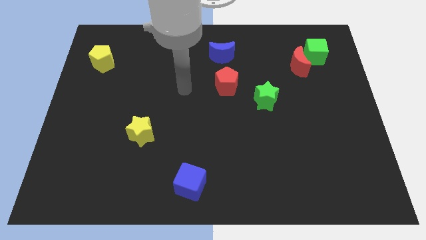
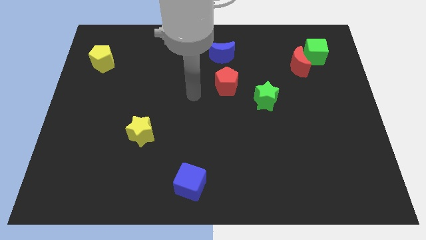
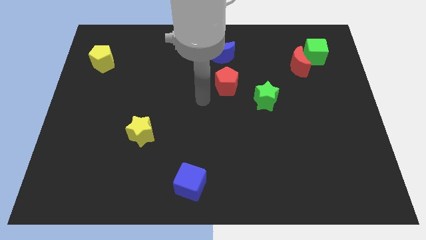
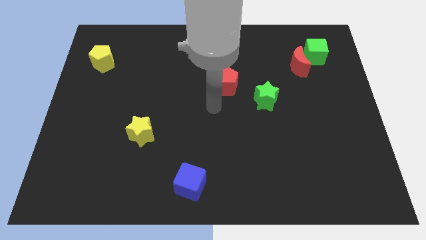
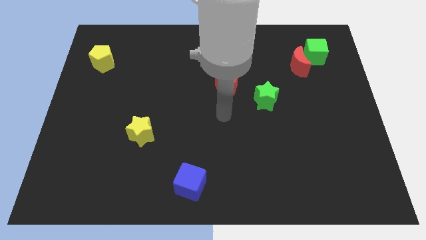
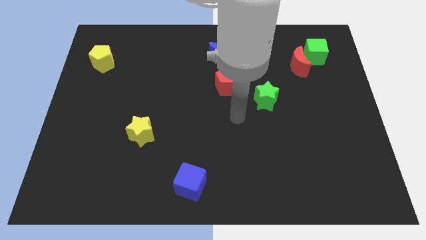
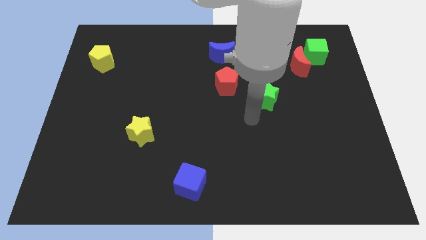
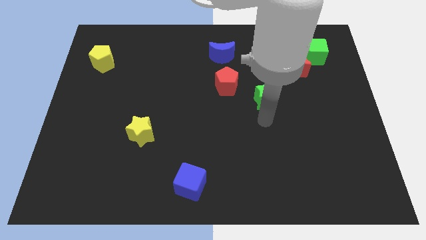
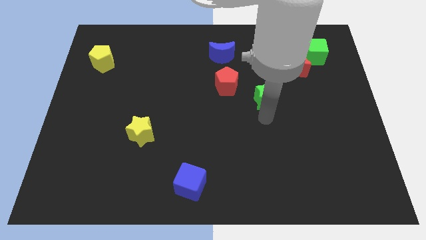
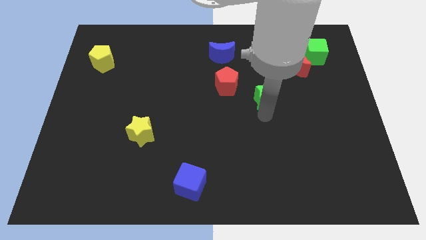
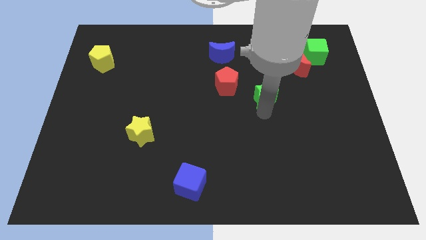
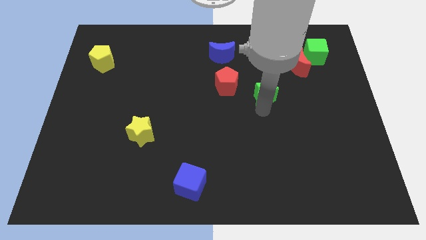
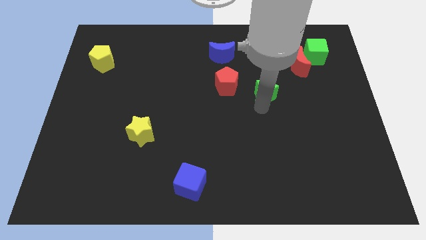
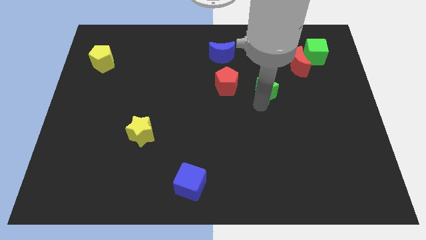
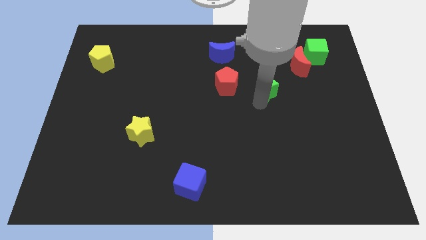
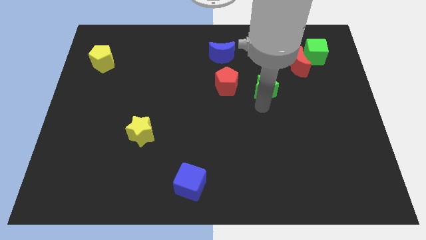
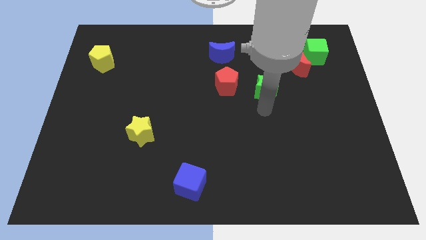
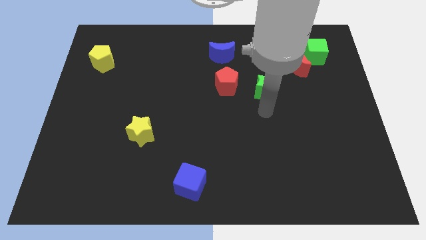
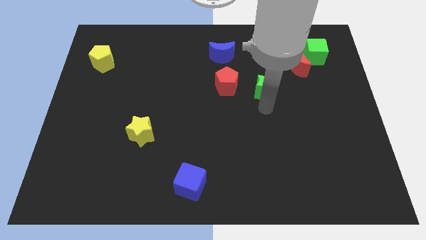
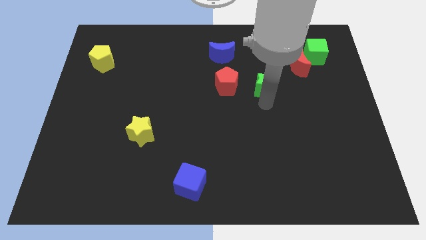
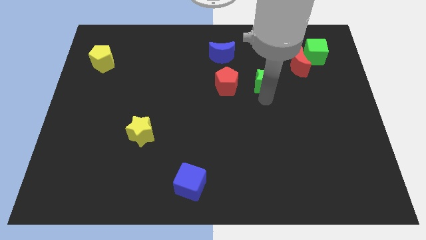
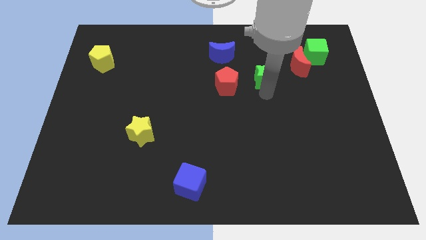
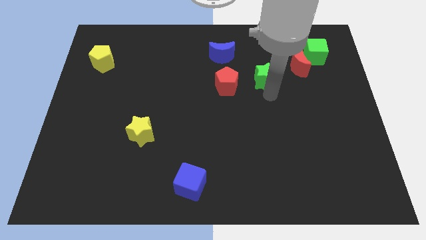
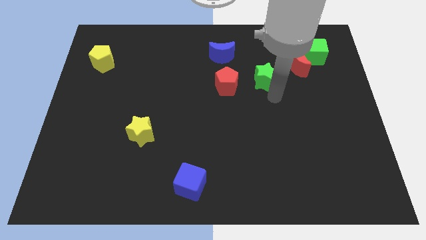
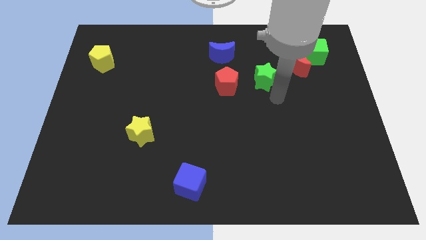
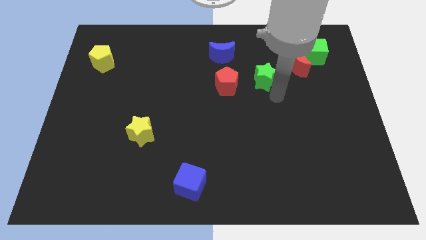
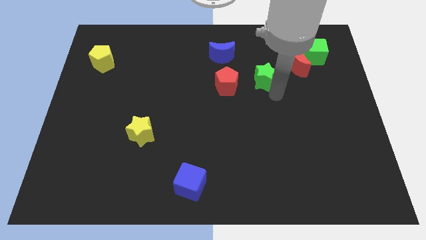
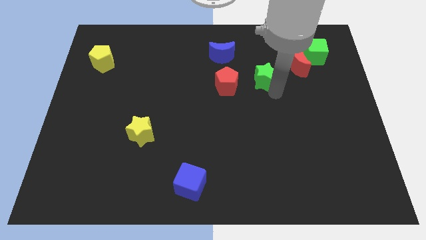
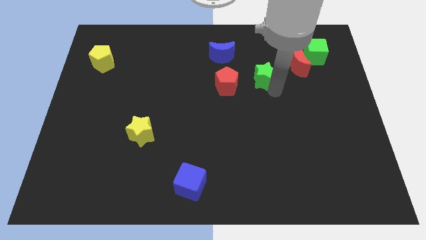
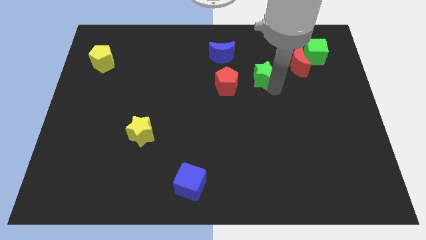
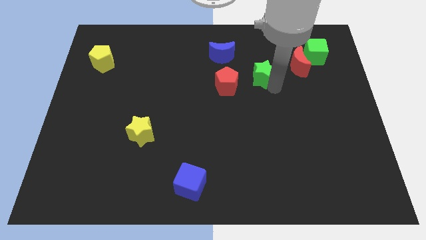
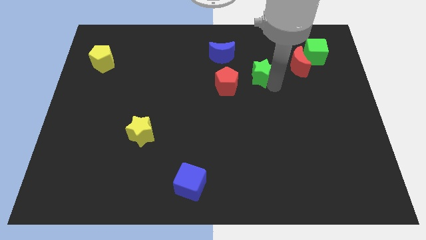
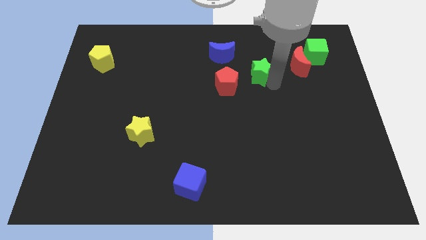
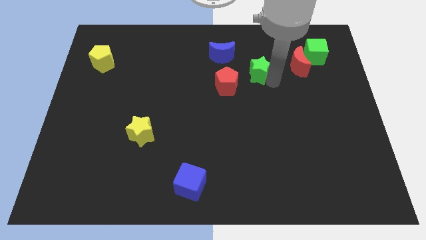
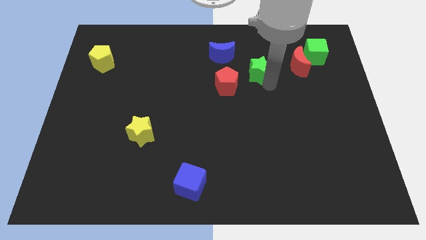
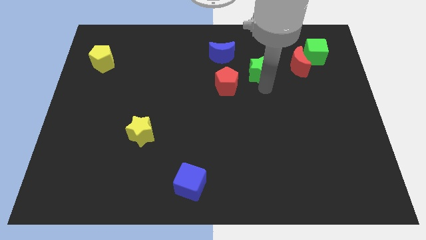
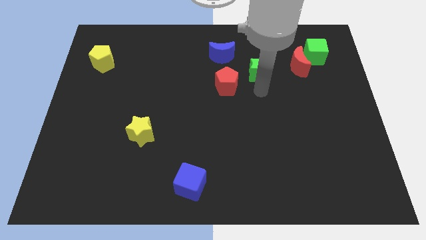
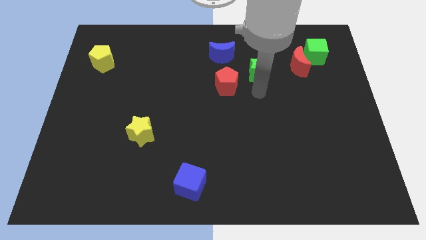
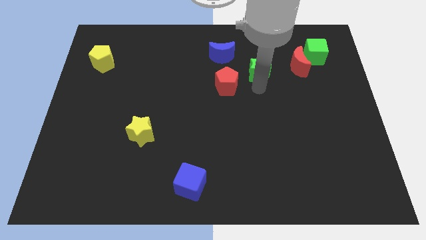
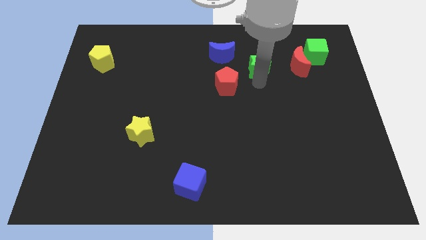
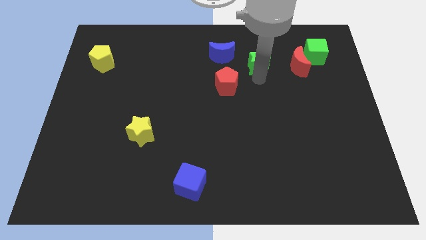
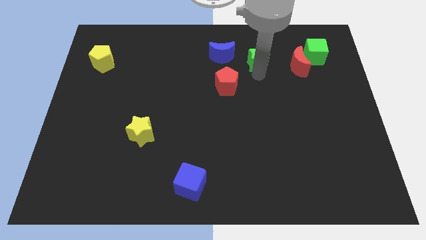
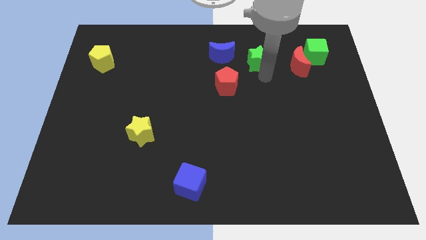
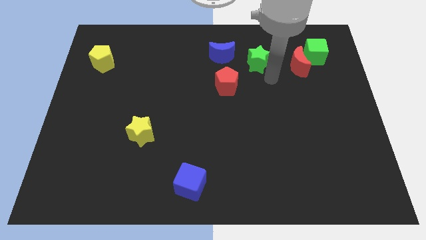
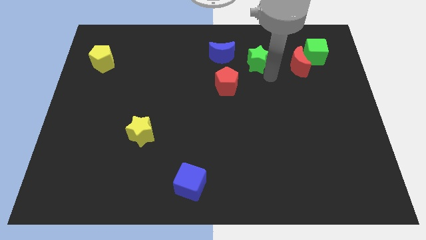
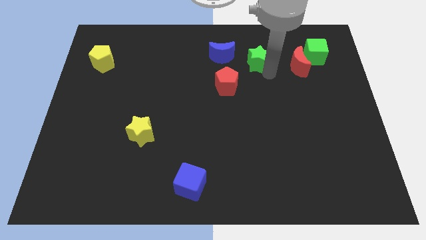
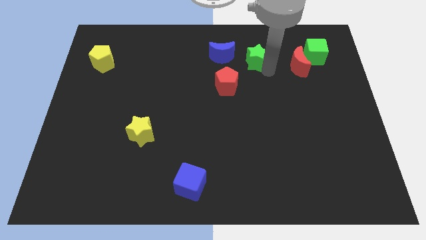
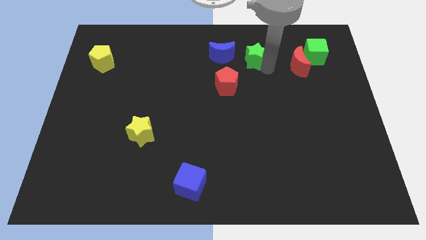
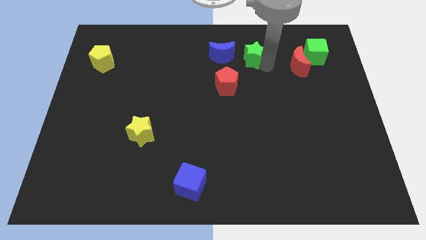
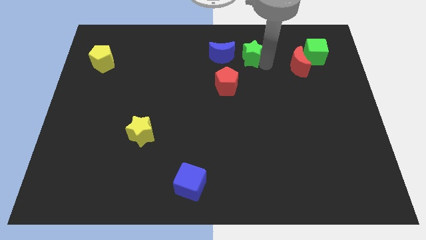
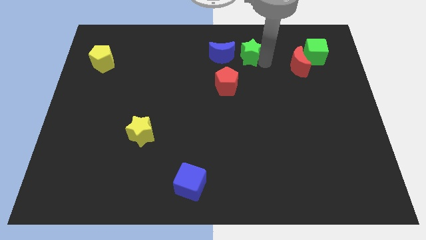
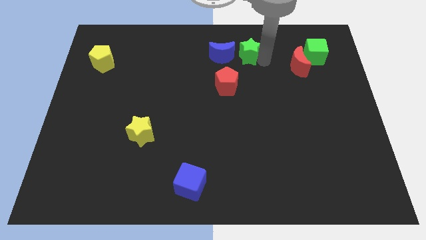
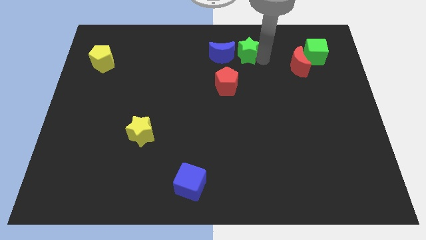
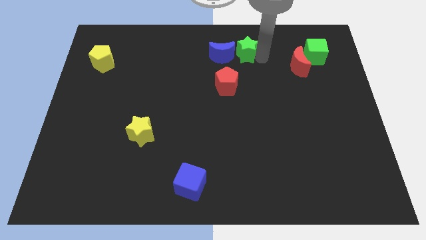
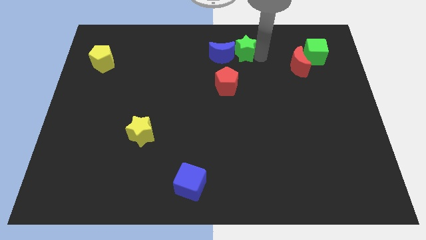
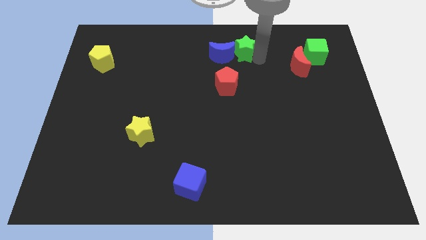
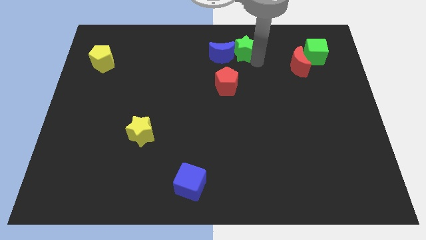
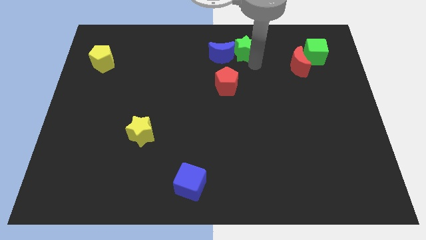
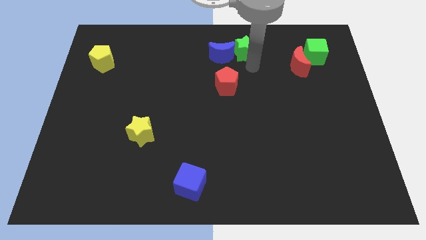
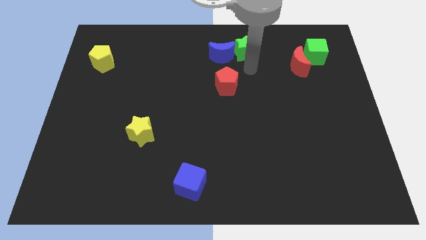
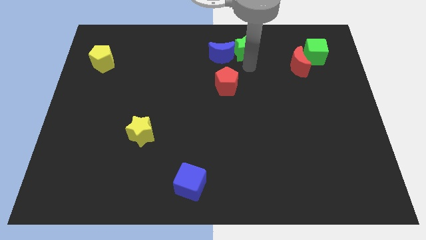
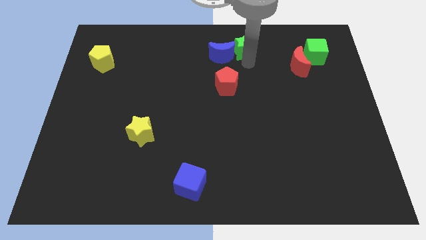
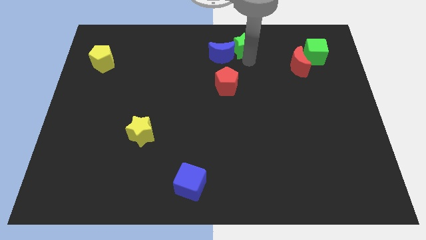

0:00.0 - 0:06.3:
put the green star to the top
